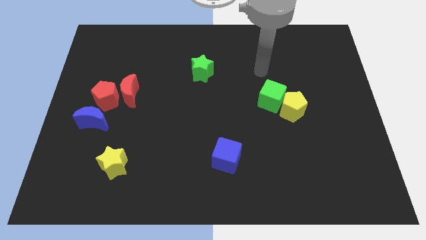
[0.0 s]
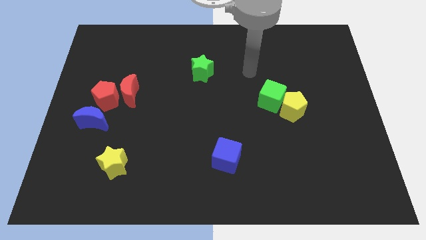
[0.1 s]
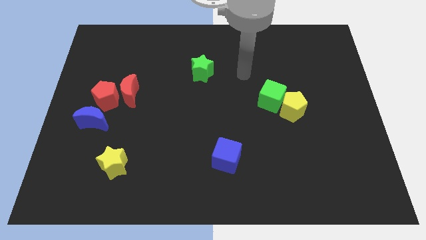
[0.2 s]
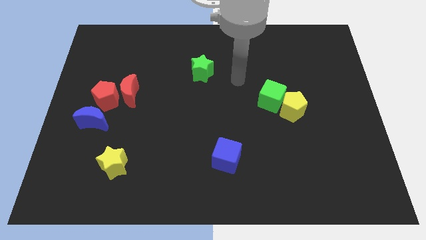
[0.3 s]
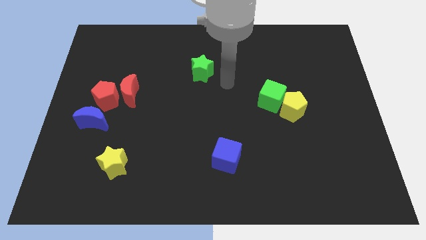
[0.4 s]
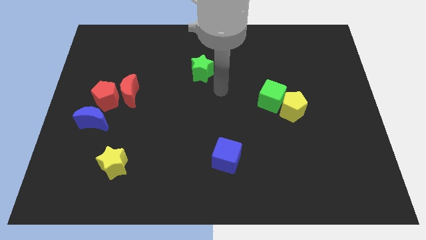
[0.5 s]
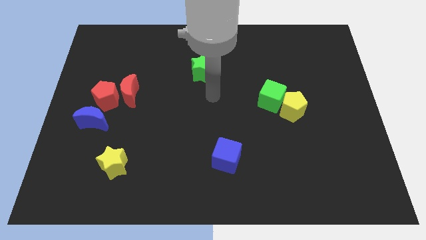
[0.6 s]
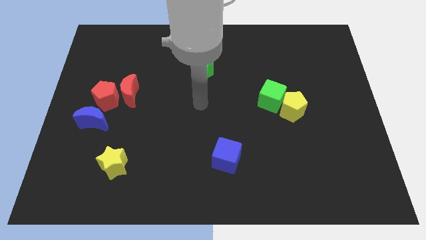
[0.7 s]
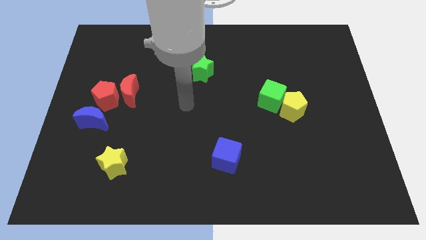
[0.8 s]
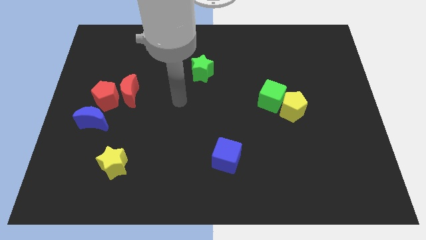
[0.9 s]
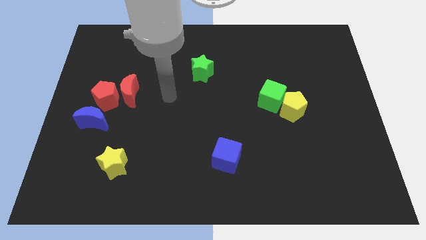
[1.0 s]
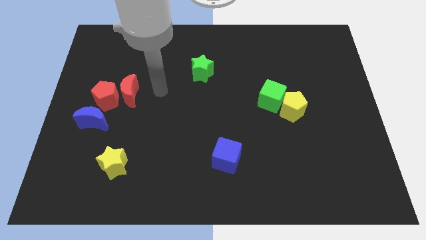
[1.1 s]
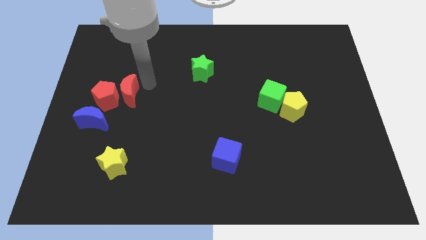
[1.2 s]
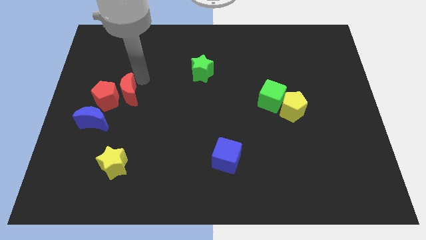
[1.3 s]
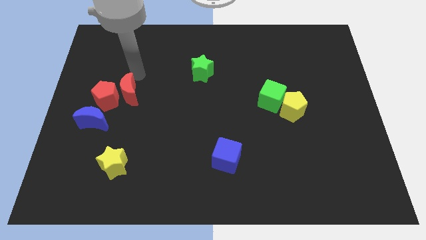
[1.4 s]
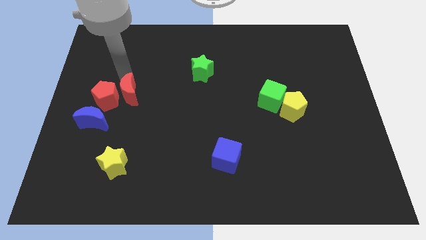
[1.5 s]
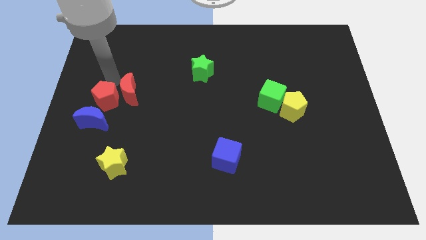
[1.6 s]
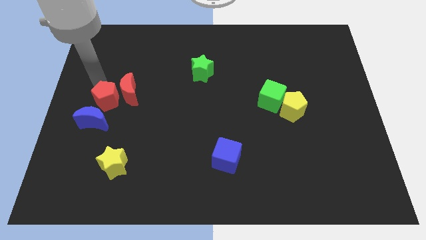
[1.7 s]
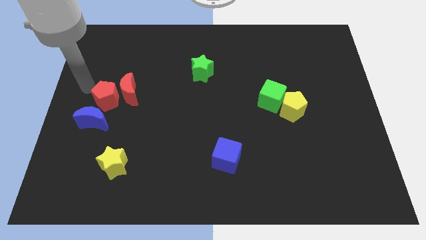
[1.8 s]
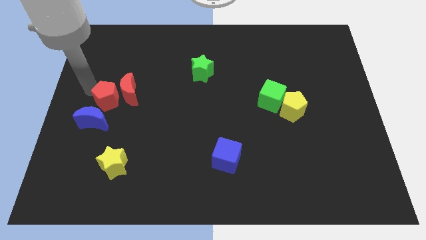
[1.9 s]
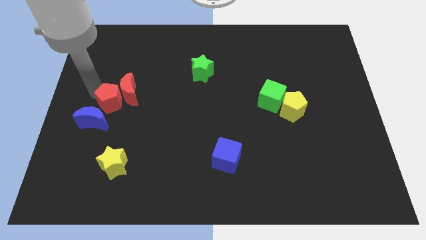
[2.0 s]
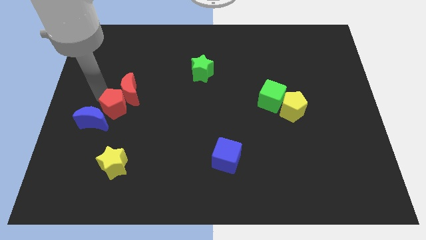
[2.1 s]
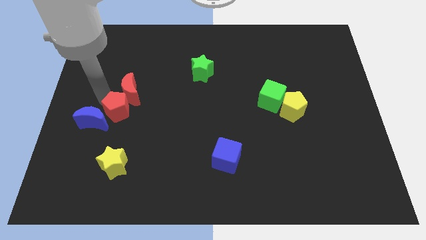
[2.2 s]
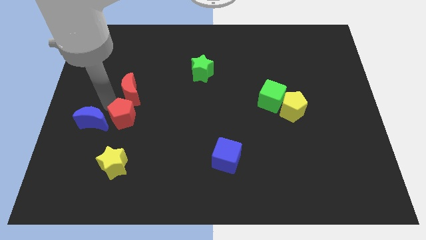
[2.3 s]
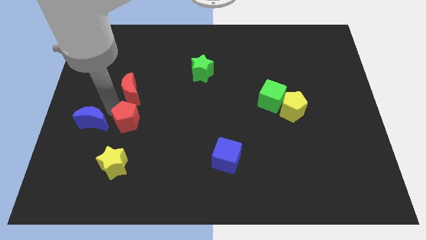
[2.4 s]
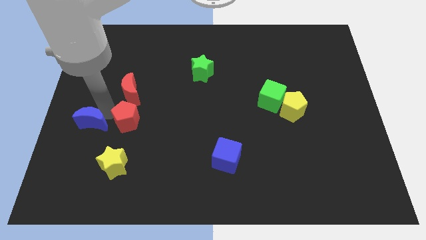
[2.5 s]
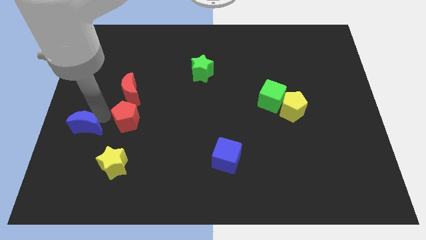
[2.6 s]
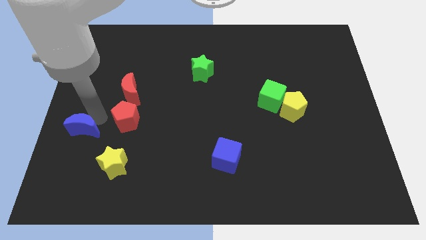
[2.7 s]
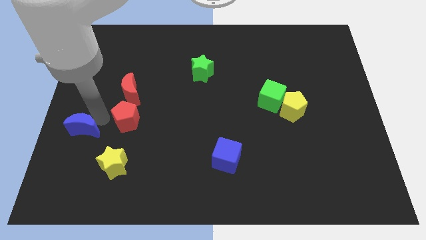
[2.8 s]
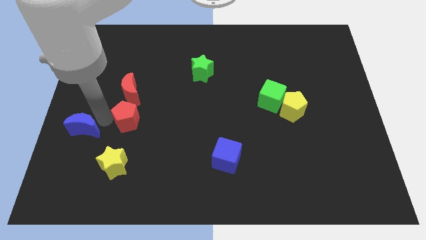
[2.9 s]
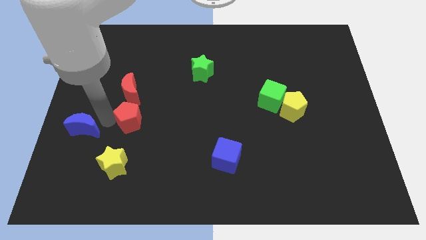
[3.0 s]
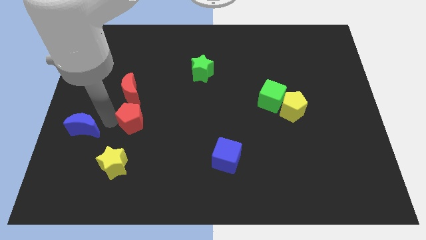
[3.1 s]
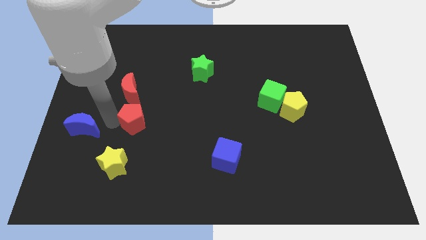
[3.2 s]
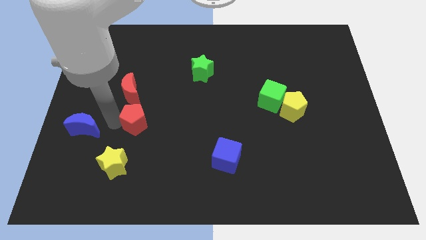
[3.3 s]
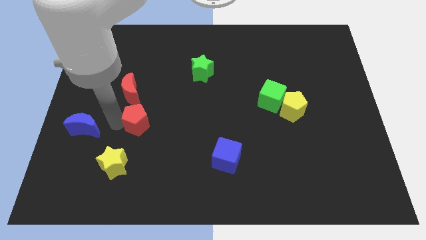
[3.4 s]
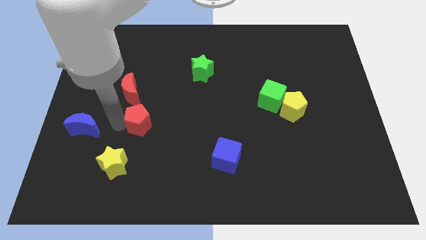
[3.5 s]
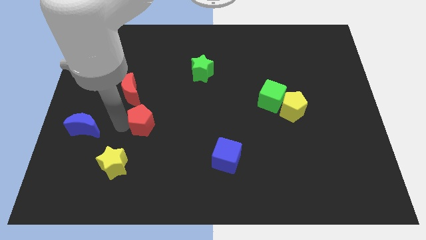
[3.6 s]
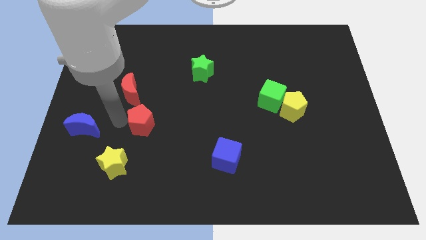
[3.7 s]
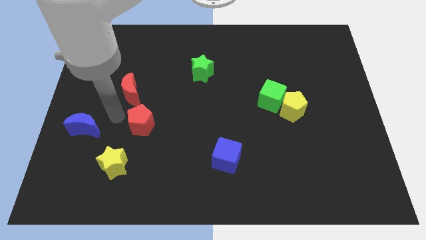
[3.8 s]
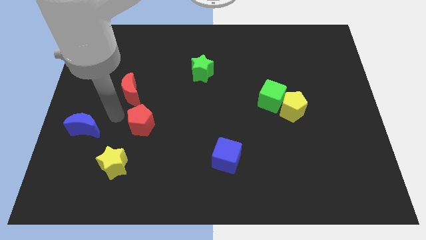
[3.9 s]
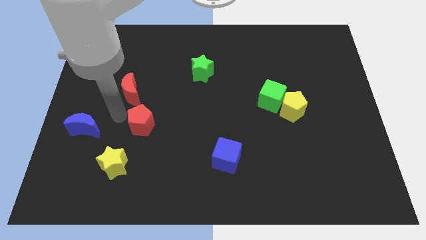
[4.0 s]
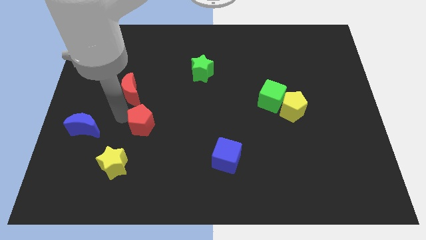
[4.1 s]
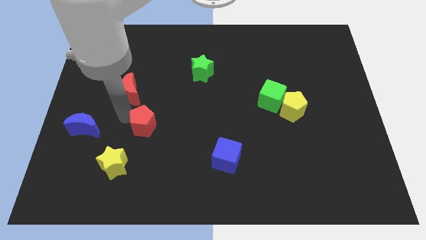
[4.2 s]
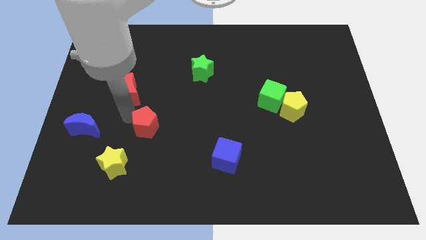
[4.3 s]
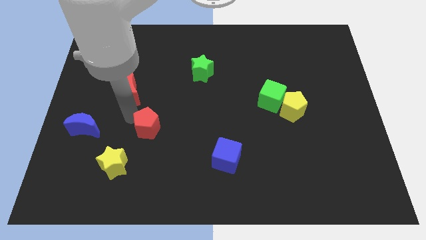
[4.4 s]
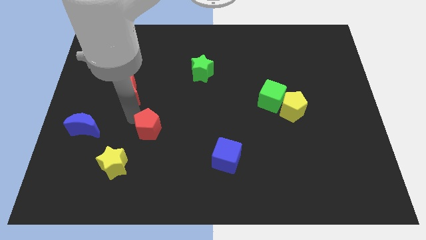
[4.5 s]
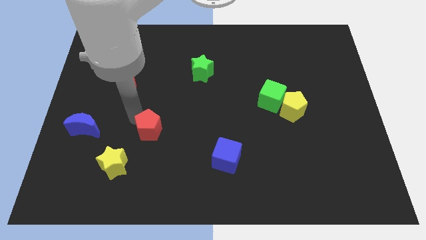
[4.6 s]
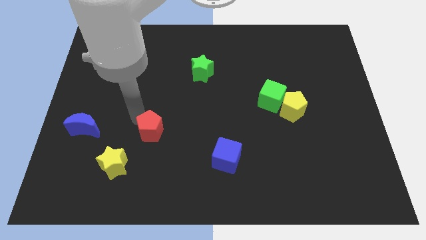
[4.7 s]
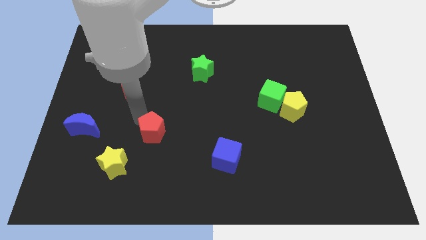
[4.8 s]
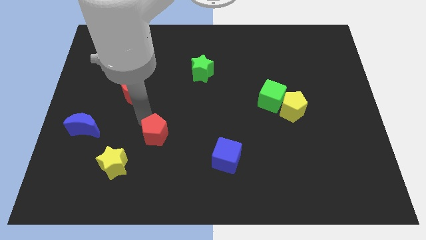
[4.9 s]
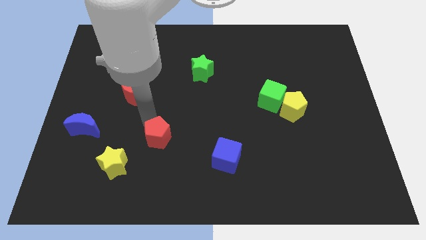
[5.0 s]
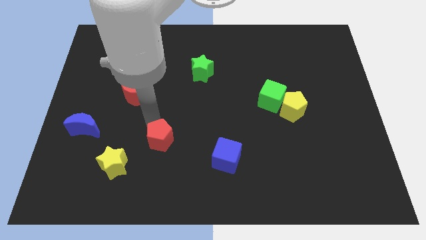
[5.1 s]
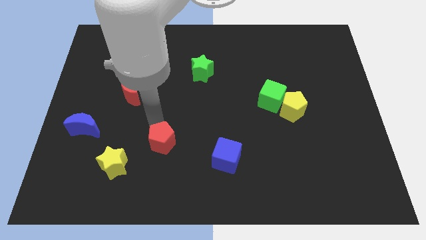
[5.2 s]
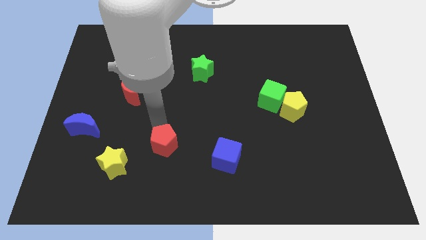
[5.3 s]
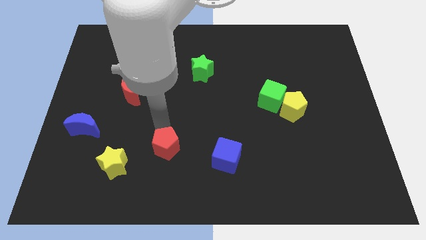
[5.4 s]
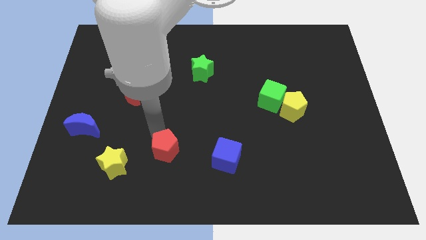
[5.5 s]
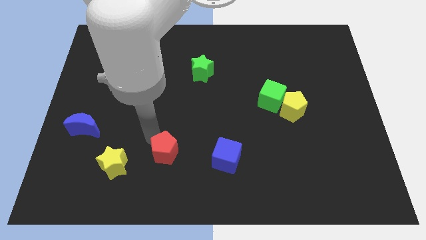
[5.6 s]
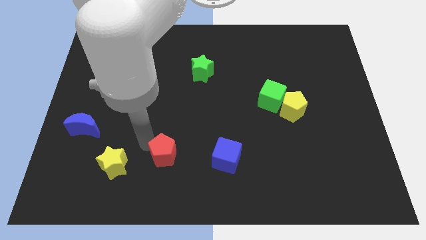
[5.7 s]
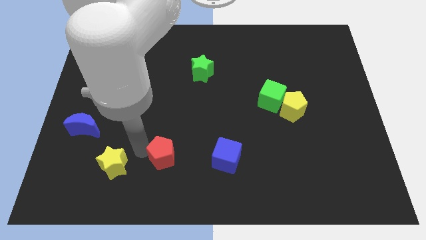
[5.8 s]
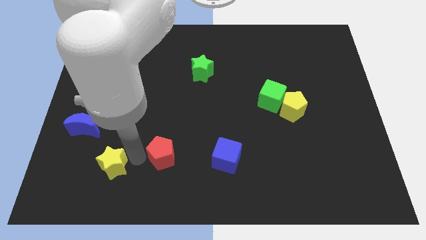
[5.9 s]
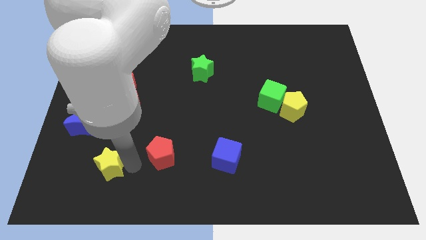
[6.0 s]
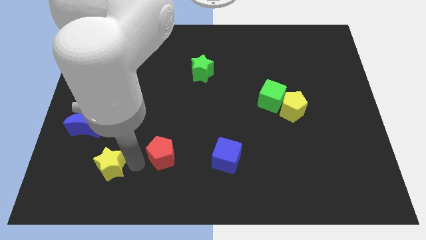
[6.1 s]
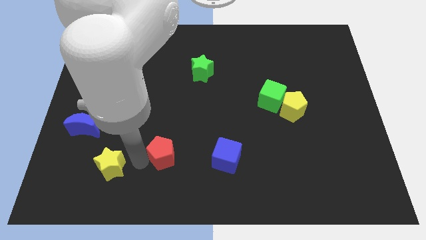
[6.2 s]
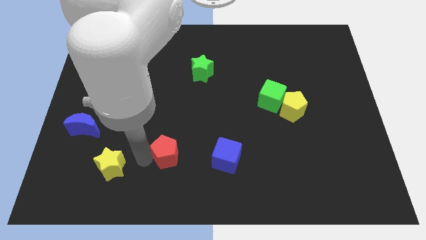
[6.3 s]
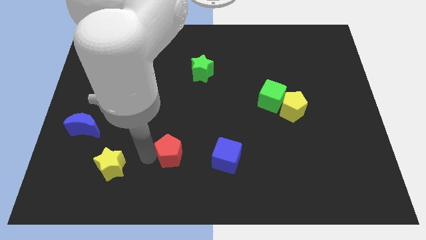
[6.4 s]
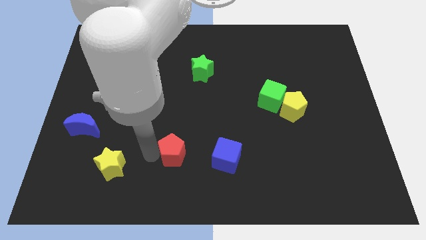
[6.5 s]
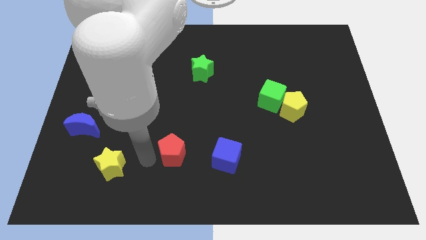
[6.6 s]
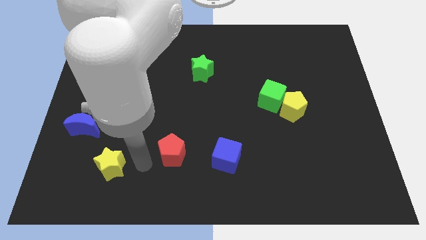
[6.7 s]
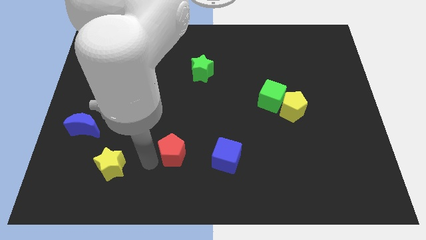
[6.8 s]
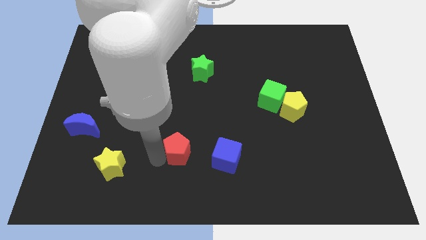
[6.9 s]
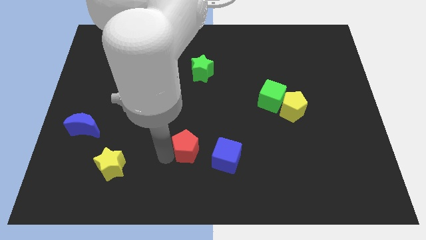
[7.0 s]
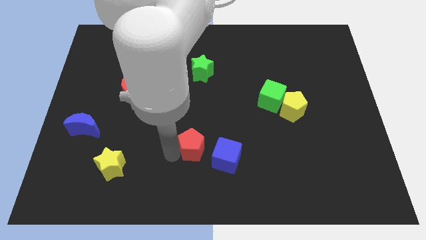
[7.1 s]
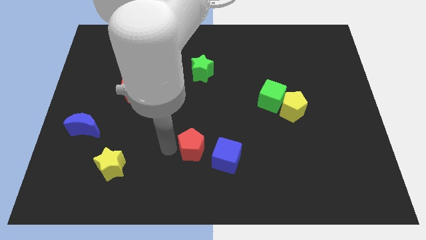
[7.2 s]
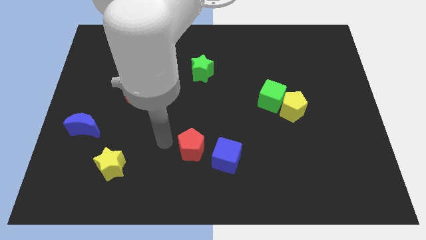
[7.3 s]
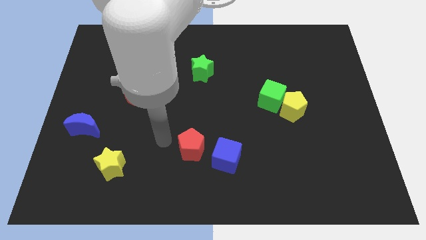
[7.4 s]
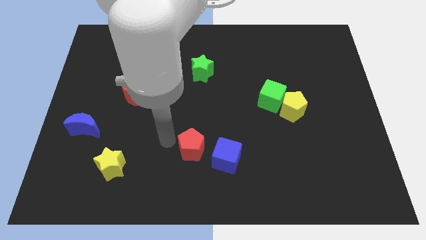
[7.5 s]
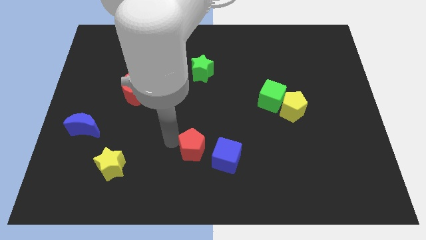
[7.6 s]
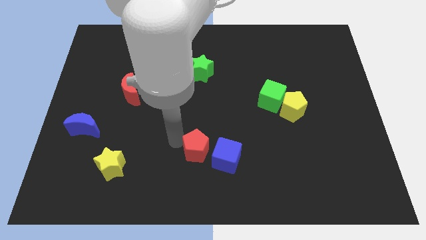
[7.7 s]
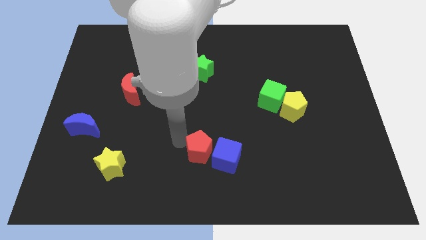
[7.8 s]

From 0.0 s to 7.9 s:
put the red pentagon to the blue cube
